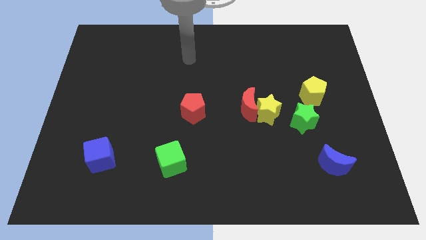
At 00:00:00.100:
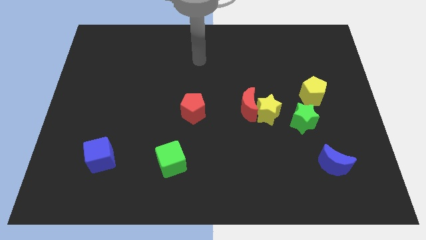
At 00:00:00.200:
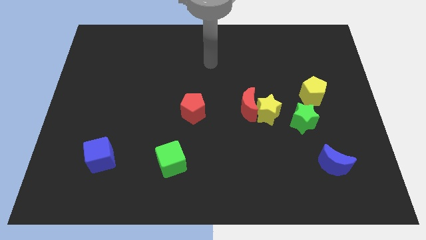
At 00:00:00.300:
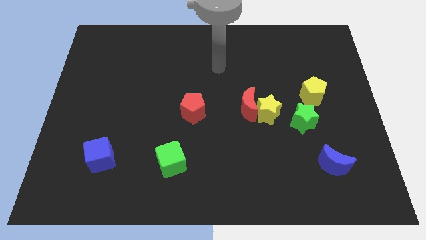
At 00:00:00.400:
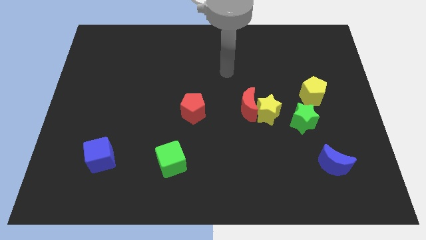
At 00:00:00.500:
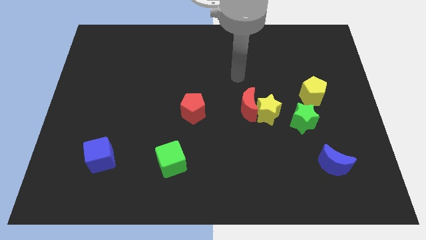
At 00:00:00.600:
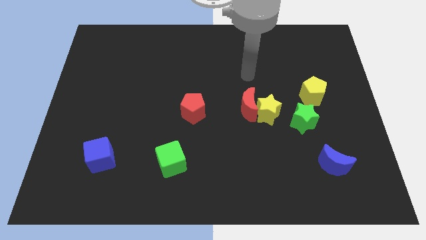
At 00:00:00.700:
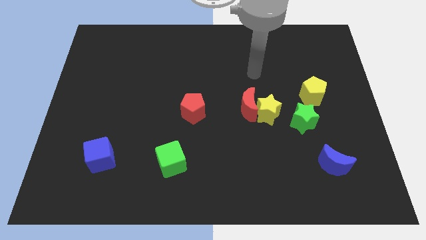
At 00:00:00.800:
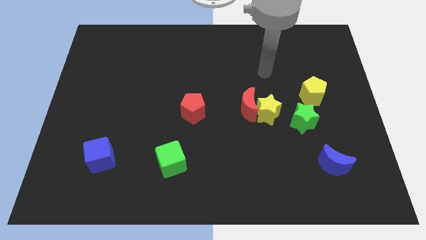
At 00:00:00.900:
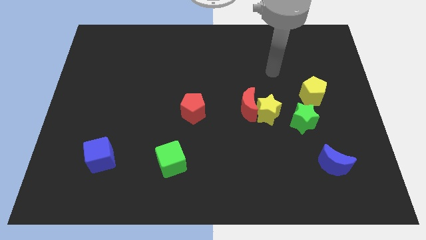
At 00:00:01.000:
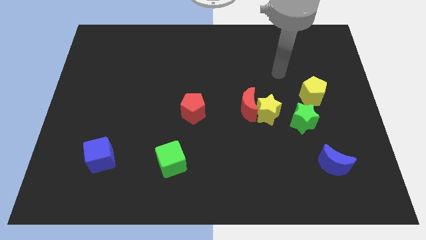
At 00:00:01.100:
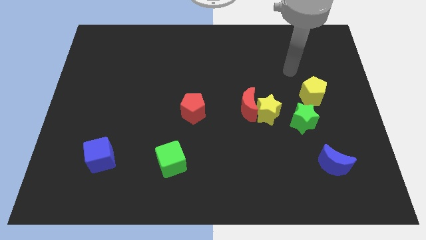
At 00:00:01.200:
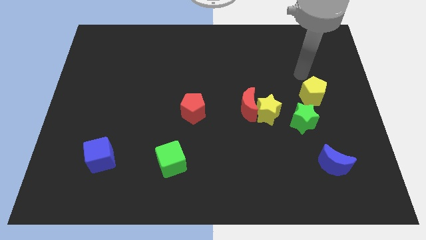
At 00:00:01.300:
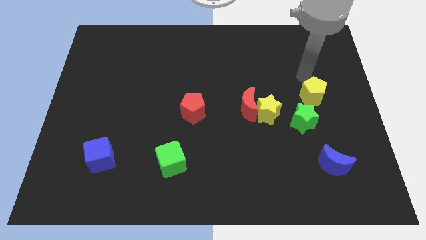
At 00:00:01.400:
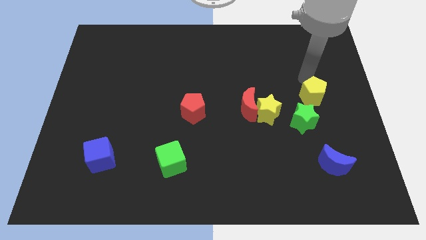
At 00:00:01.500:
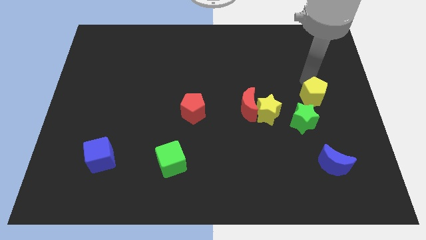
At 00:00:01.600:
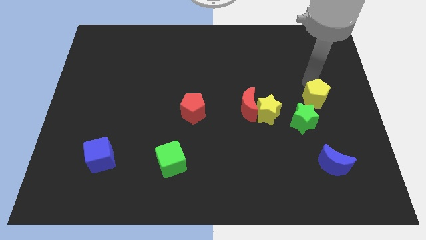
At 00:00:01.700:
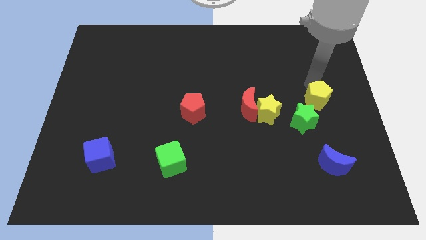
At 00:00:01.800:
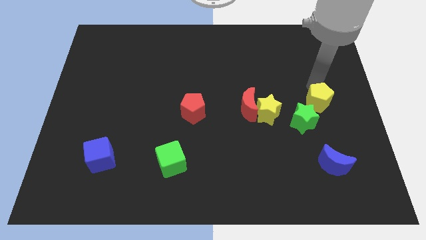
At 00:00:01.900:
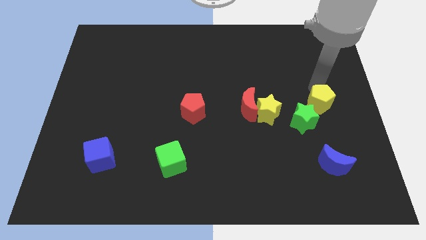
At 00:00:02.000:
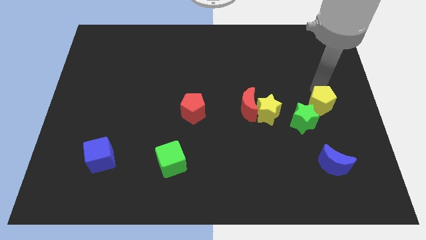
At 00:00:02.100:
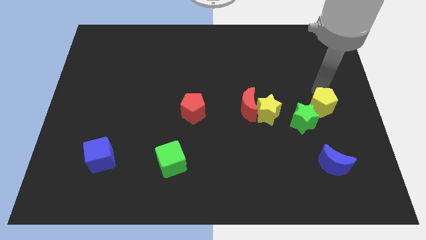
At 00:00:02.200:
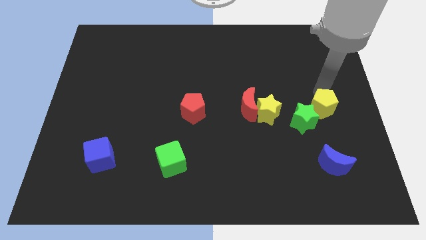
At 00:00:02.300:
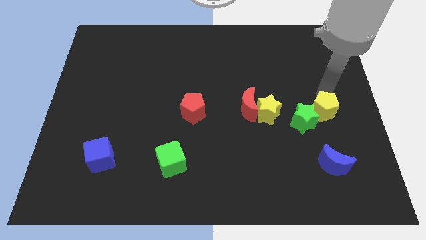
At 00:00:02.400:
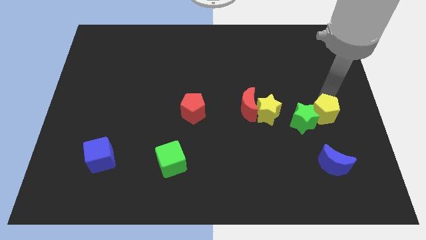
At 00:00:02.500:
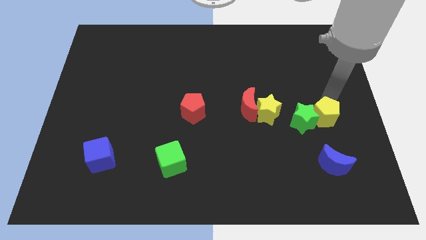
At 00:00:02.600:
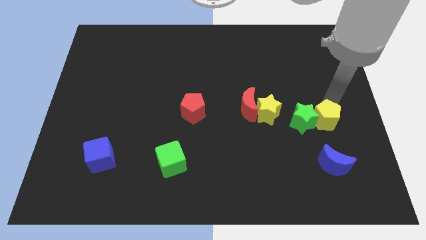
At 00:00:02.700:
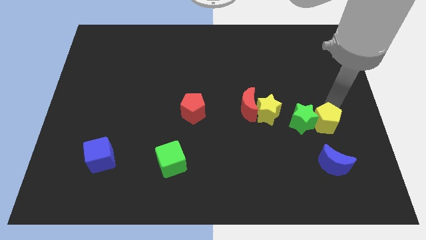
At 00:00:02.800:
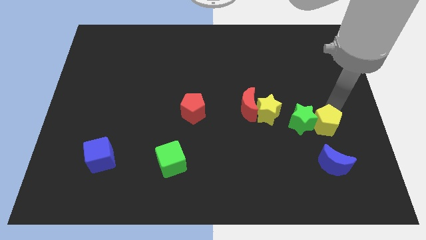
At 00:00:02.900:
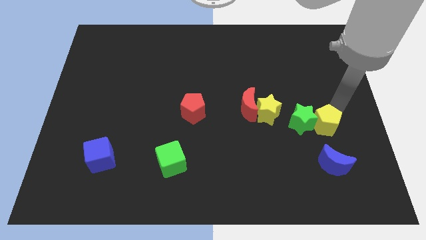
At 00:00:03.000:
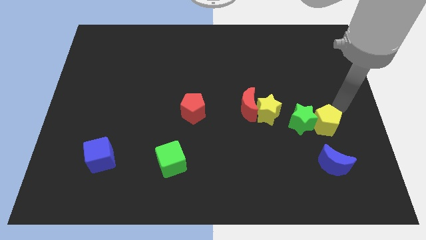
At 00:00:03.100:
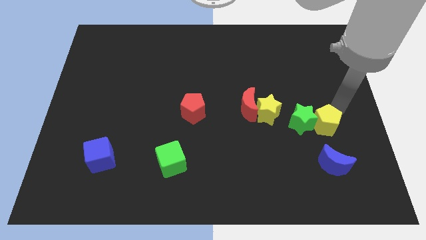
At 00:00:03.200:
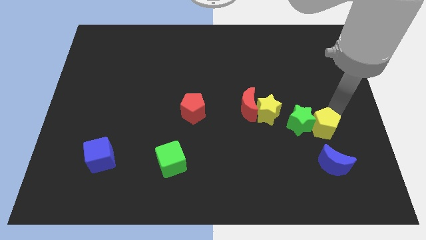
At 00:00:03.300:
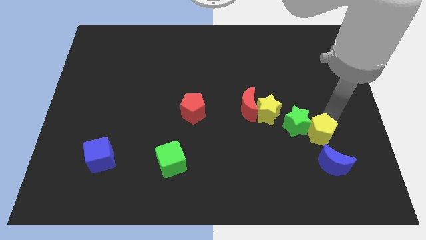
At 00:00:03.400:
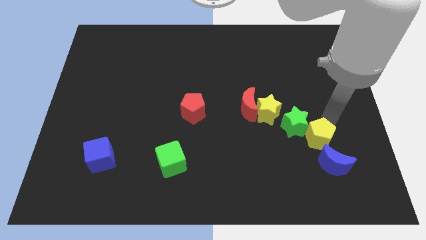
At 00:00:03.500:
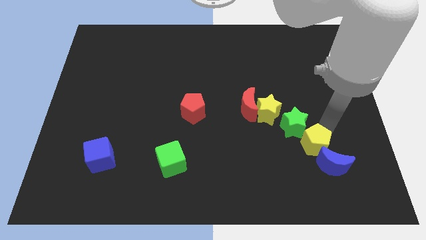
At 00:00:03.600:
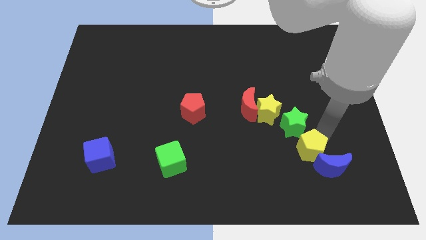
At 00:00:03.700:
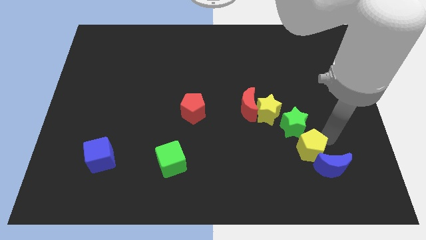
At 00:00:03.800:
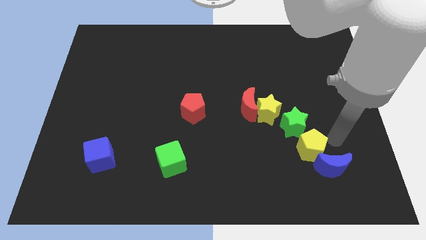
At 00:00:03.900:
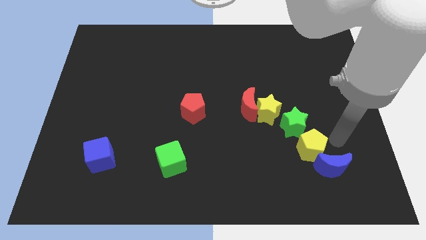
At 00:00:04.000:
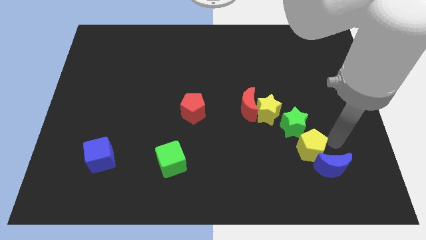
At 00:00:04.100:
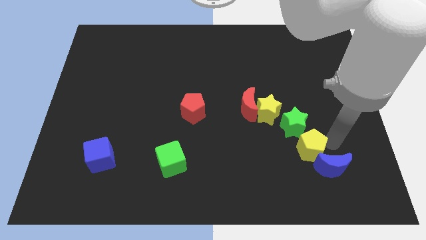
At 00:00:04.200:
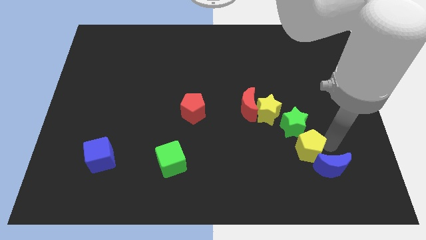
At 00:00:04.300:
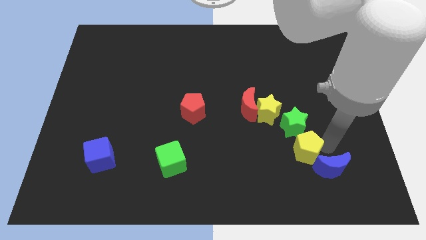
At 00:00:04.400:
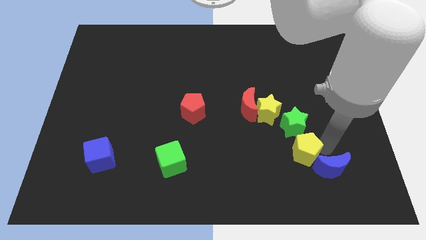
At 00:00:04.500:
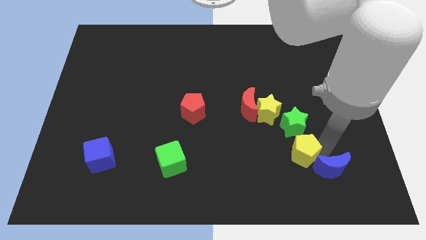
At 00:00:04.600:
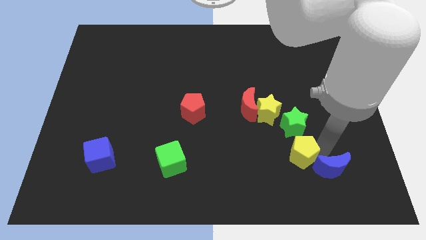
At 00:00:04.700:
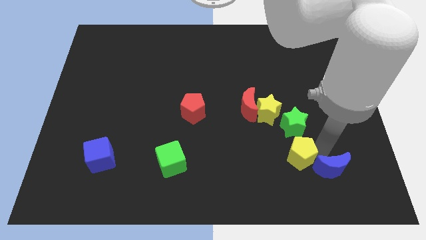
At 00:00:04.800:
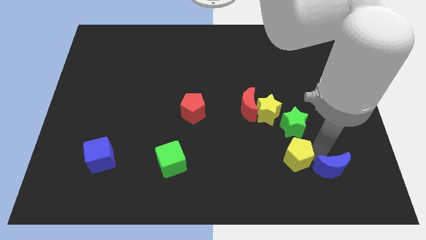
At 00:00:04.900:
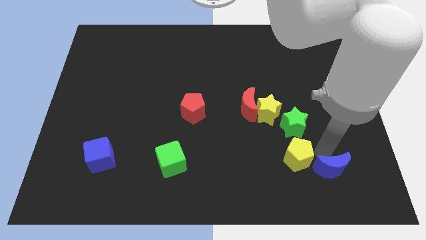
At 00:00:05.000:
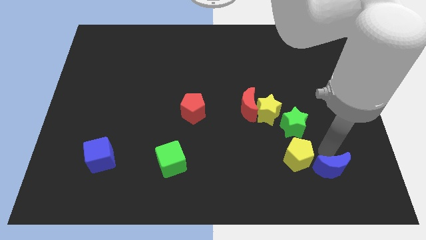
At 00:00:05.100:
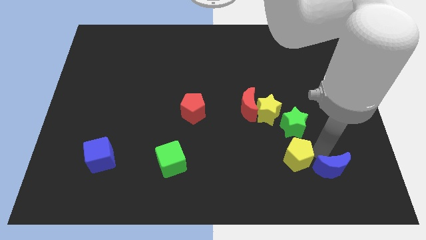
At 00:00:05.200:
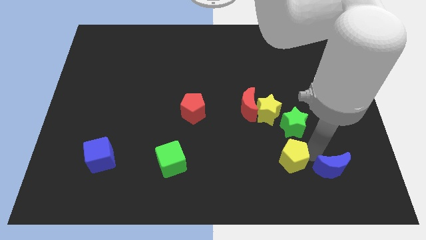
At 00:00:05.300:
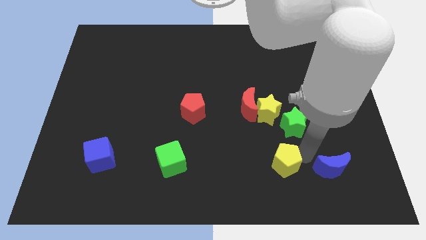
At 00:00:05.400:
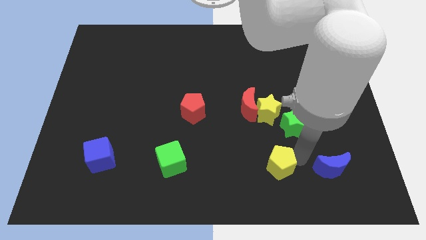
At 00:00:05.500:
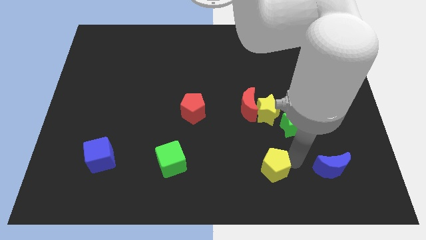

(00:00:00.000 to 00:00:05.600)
move the yellow pentagon down and then to the left

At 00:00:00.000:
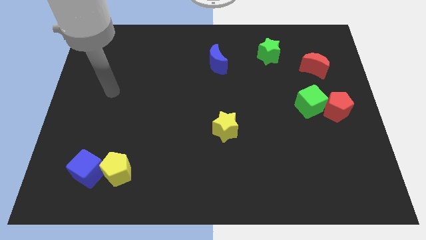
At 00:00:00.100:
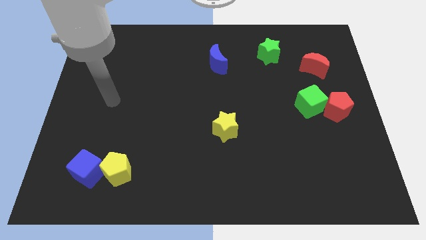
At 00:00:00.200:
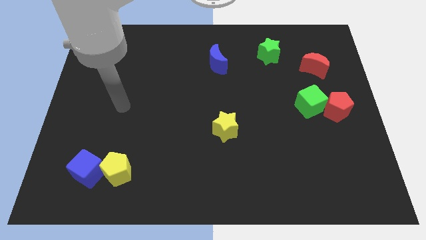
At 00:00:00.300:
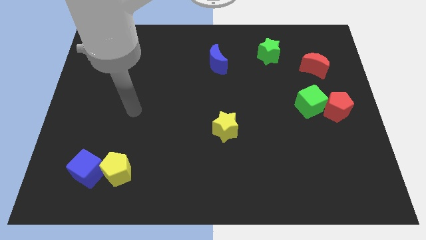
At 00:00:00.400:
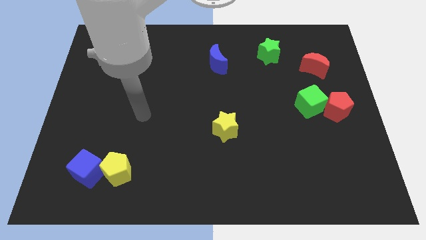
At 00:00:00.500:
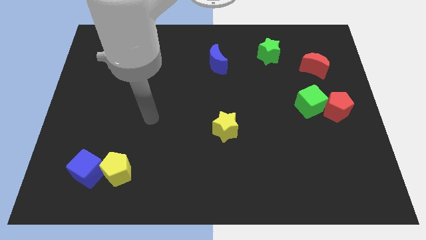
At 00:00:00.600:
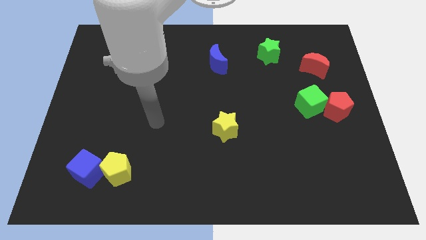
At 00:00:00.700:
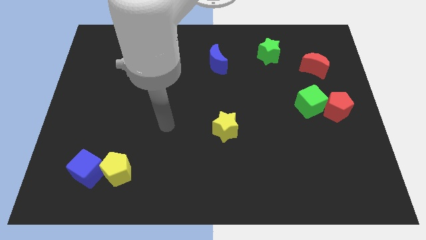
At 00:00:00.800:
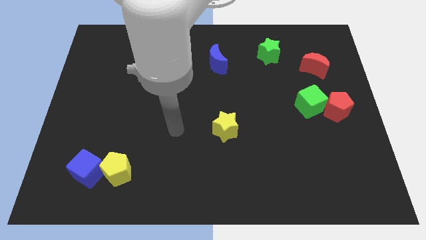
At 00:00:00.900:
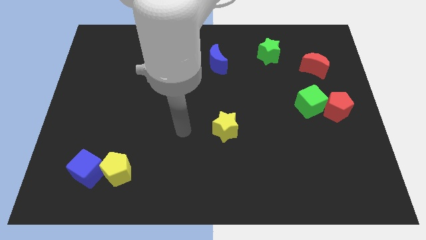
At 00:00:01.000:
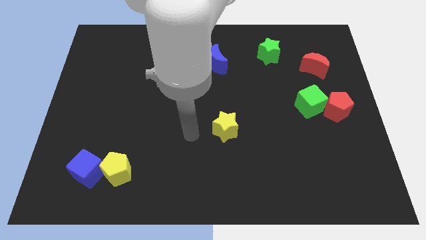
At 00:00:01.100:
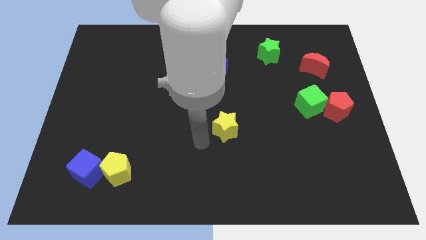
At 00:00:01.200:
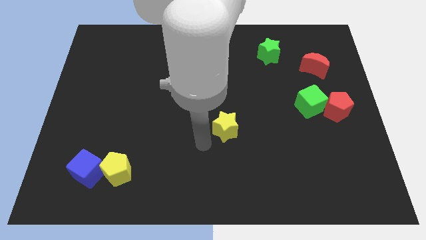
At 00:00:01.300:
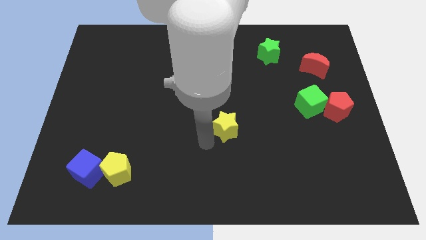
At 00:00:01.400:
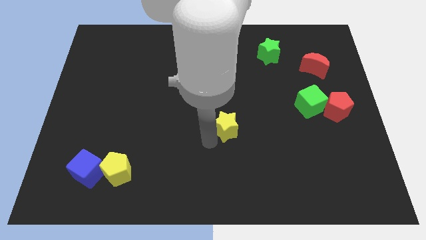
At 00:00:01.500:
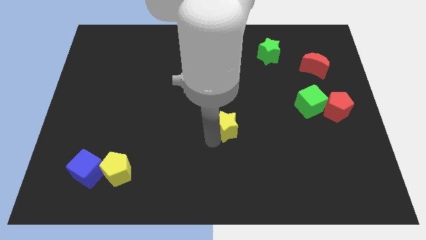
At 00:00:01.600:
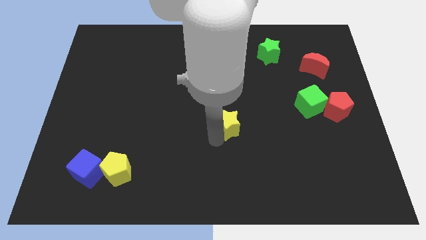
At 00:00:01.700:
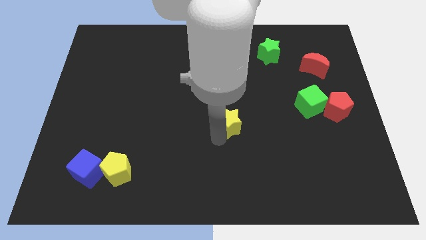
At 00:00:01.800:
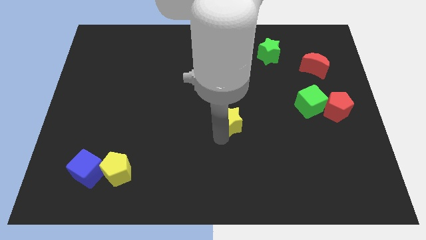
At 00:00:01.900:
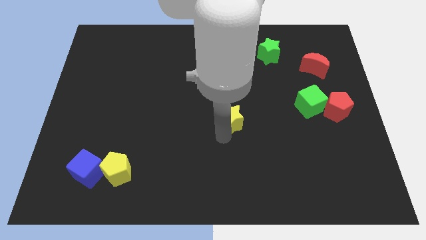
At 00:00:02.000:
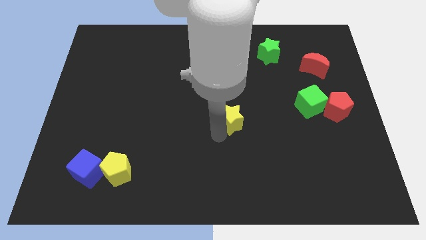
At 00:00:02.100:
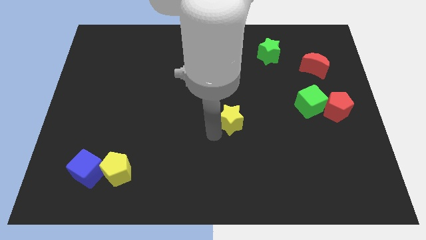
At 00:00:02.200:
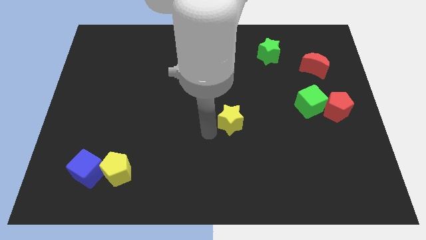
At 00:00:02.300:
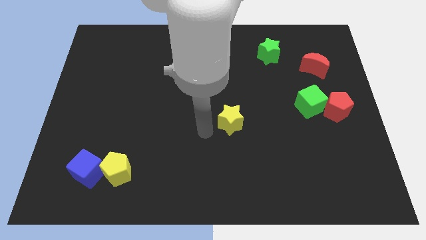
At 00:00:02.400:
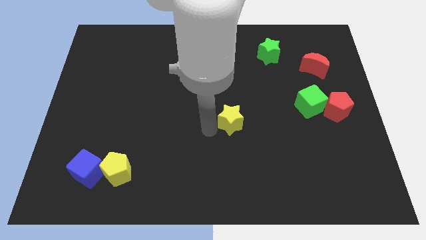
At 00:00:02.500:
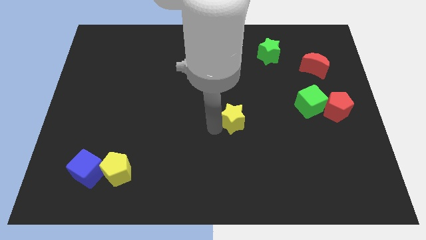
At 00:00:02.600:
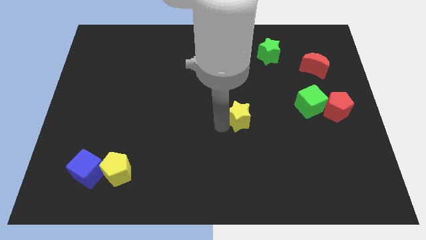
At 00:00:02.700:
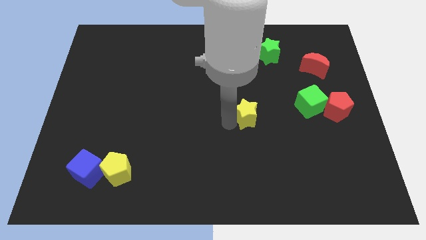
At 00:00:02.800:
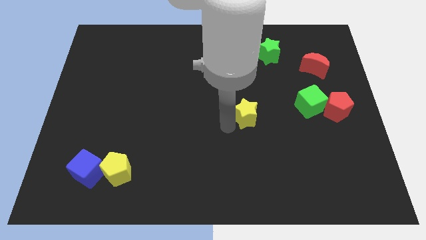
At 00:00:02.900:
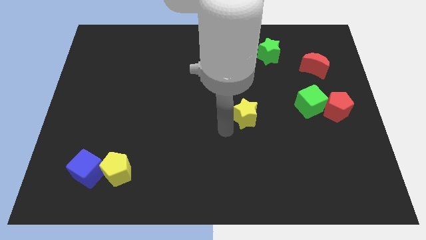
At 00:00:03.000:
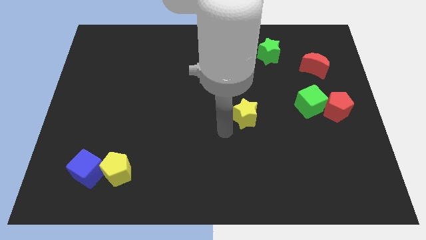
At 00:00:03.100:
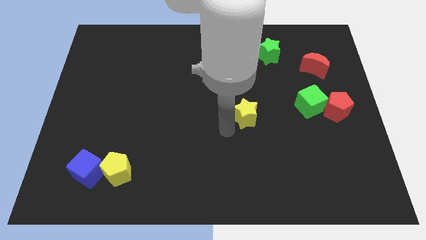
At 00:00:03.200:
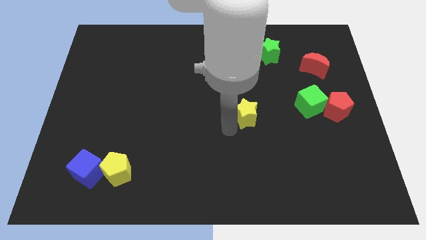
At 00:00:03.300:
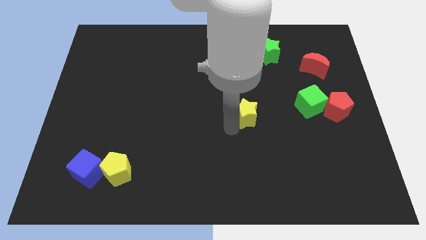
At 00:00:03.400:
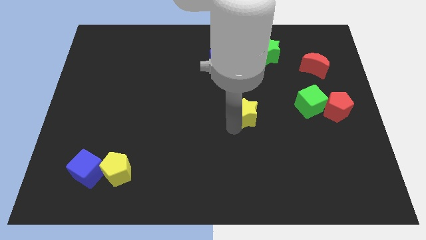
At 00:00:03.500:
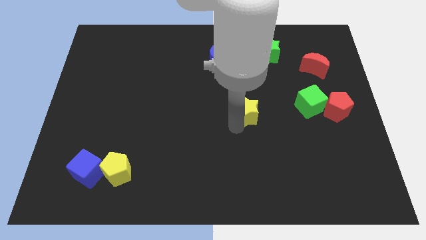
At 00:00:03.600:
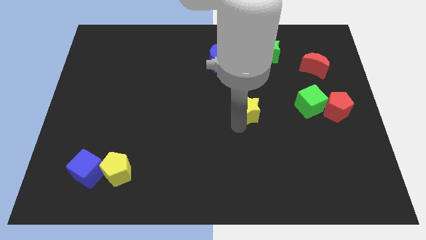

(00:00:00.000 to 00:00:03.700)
slightly slide the yellow star diagonally up and to the right
